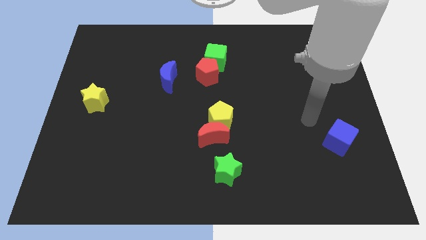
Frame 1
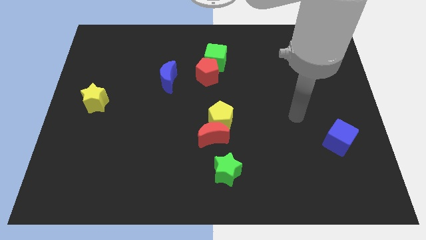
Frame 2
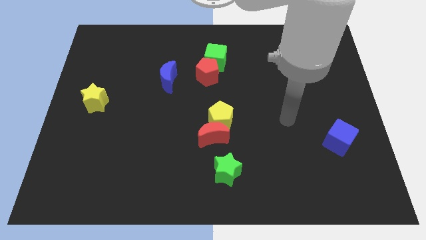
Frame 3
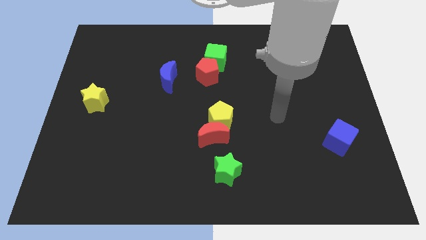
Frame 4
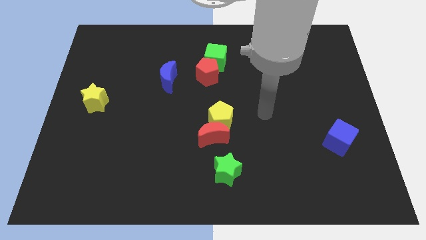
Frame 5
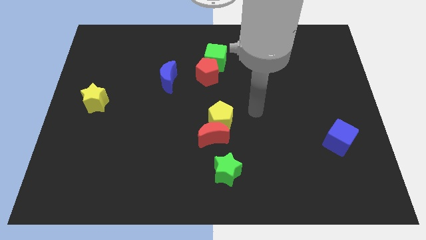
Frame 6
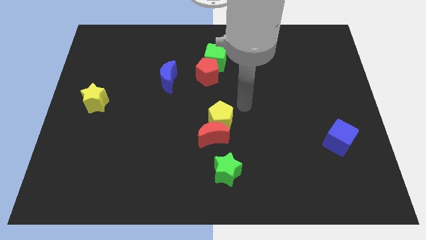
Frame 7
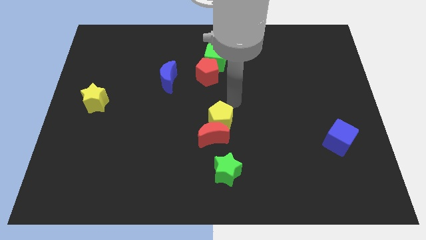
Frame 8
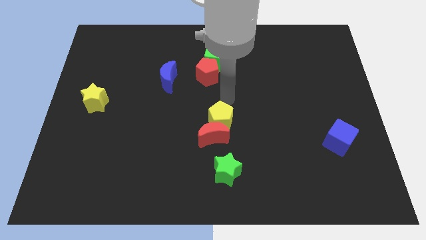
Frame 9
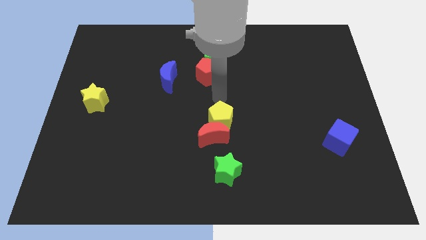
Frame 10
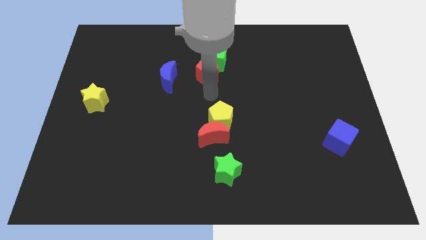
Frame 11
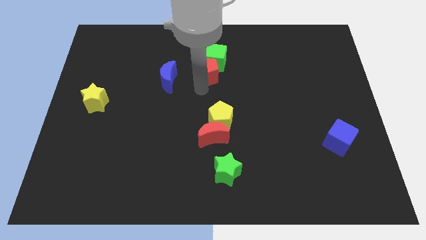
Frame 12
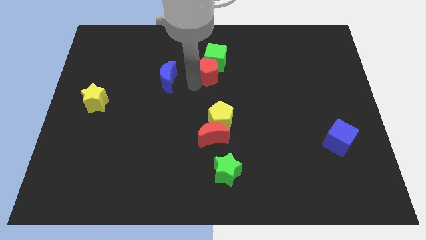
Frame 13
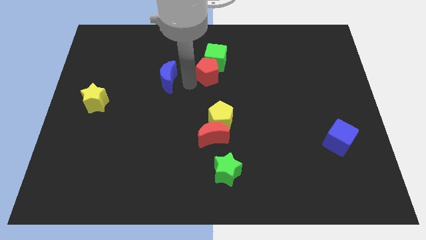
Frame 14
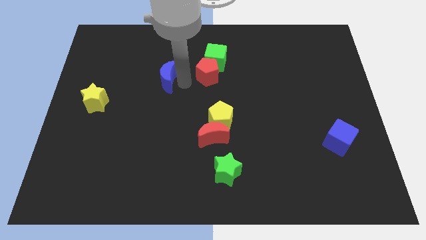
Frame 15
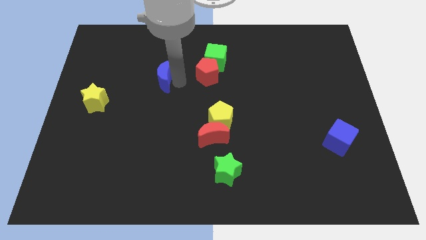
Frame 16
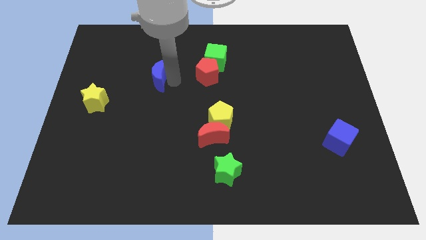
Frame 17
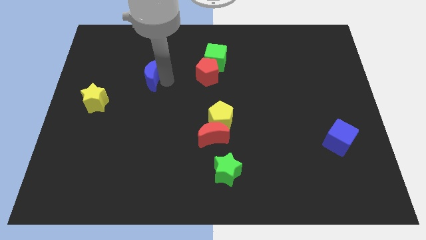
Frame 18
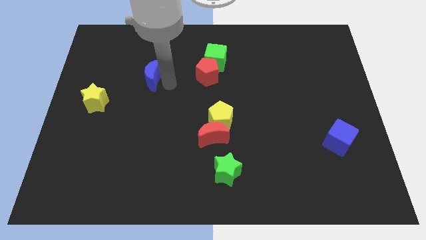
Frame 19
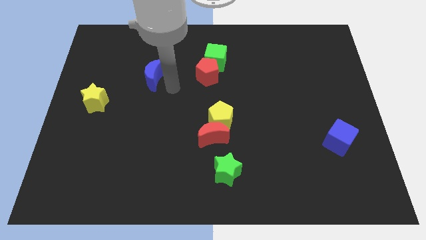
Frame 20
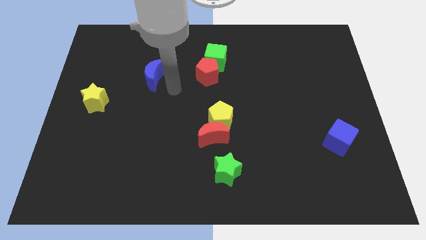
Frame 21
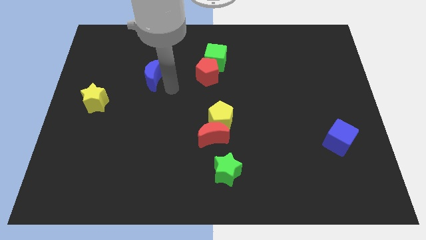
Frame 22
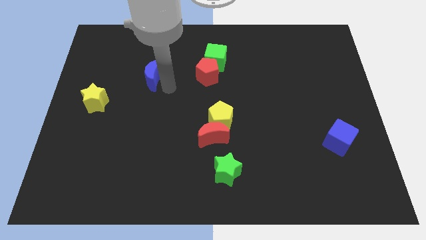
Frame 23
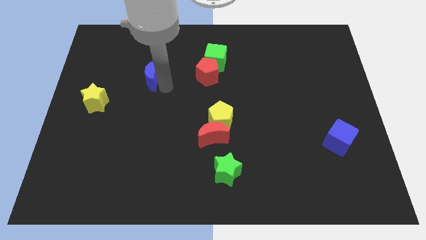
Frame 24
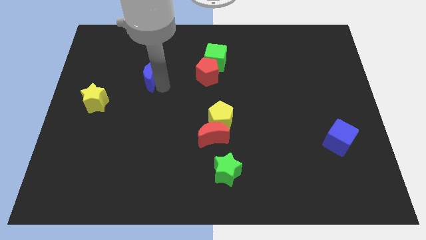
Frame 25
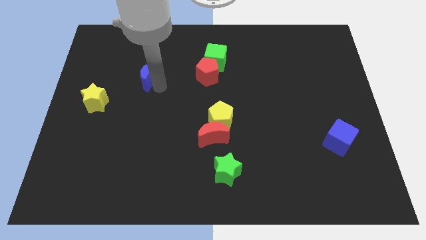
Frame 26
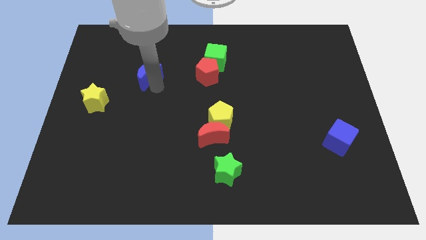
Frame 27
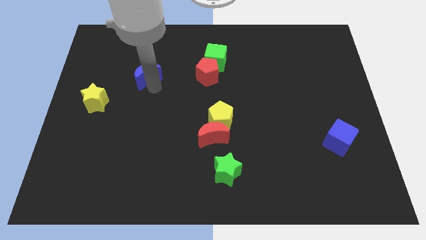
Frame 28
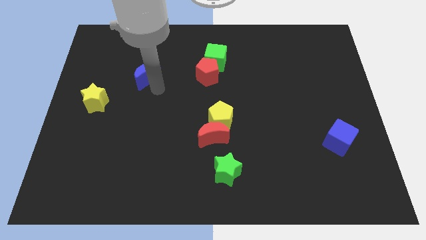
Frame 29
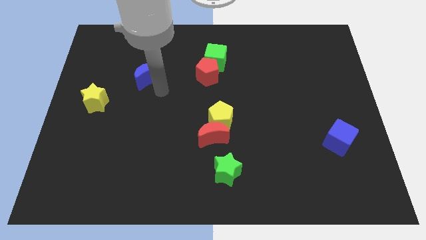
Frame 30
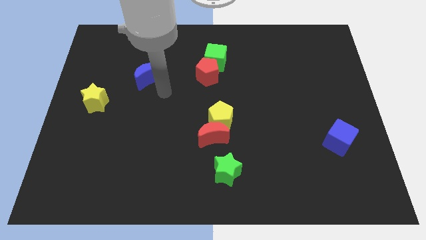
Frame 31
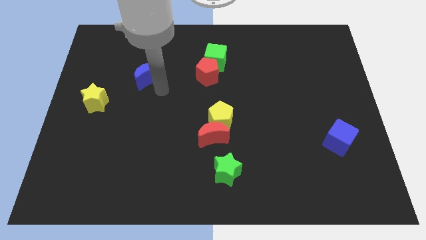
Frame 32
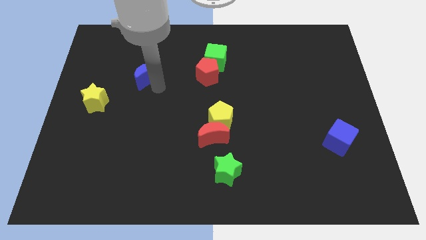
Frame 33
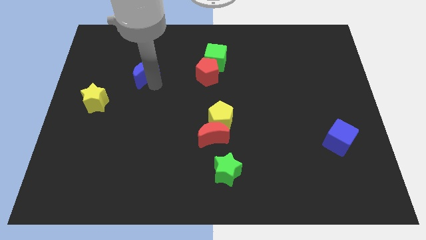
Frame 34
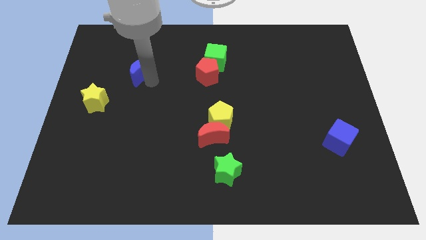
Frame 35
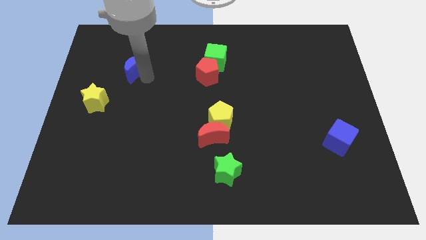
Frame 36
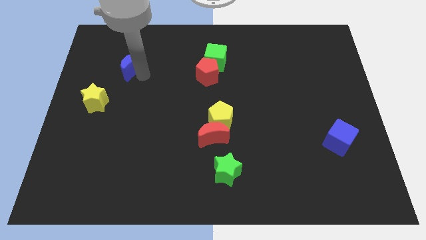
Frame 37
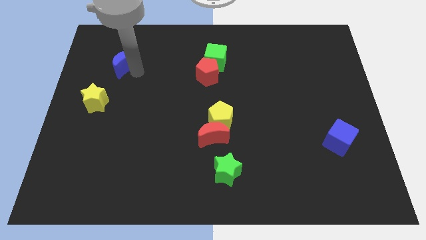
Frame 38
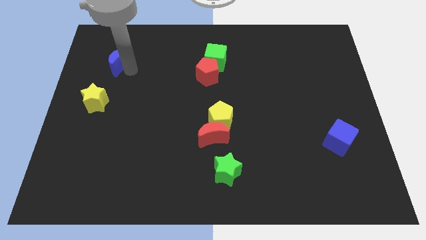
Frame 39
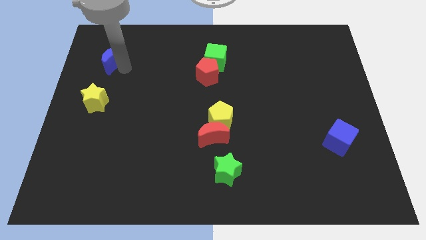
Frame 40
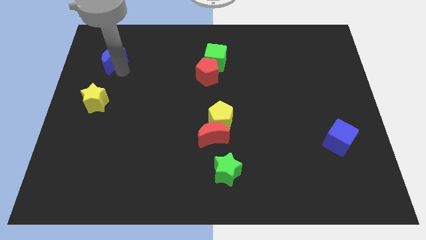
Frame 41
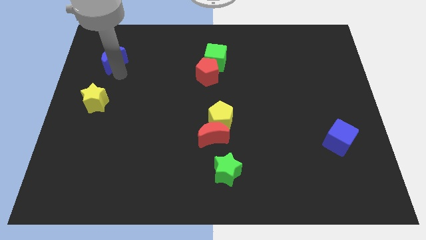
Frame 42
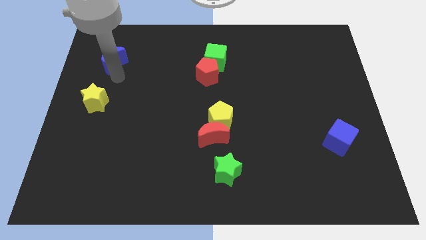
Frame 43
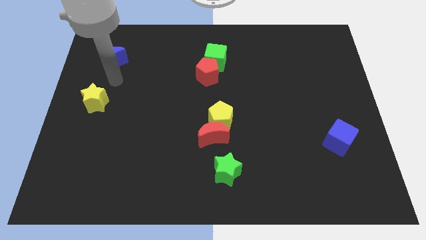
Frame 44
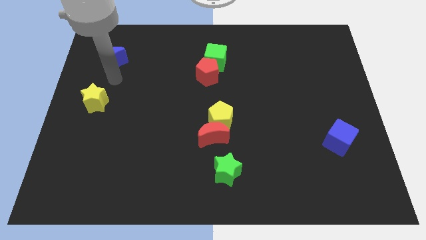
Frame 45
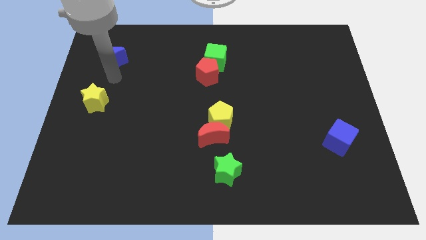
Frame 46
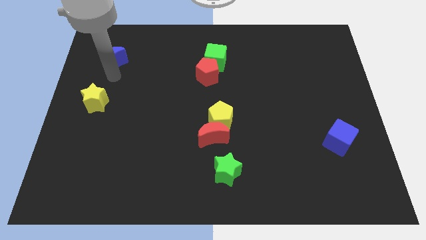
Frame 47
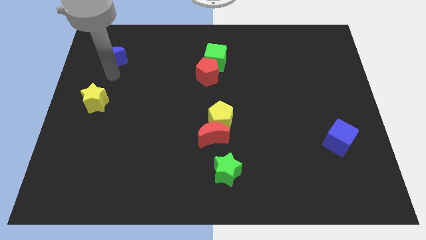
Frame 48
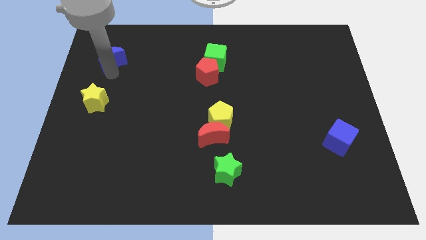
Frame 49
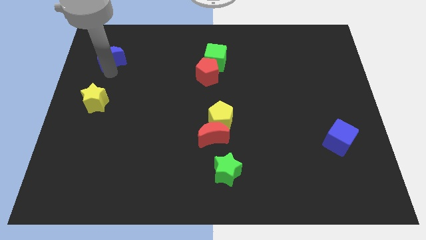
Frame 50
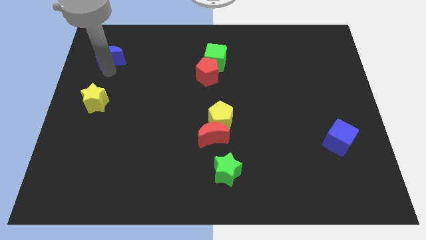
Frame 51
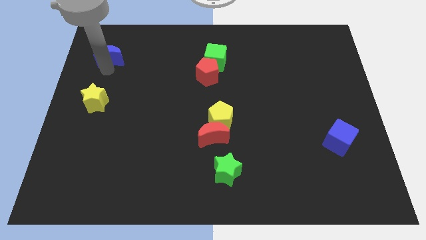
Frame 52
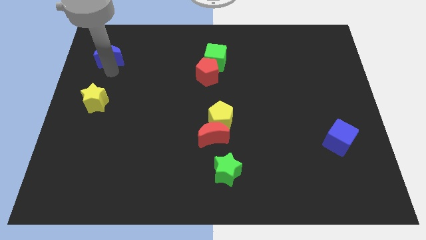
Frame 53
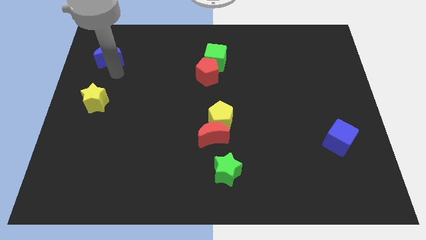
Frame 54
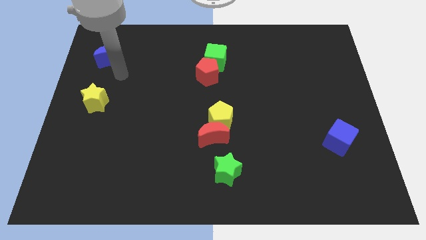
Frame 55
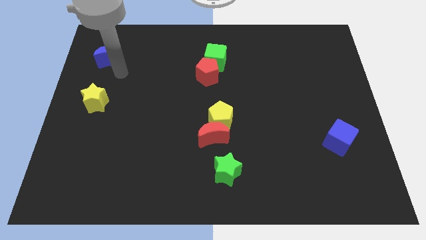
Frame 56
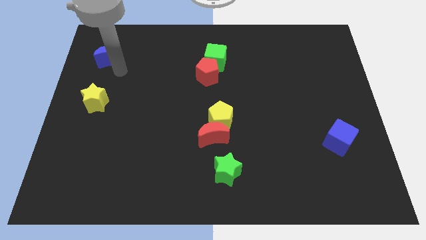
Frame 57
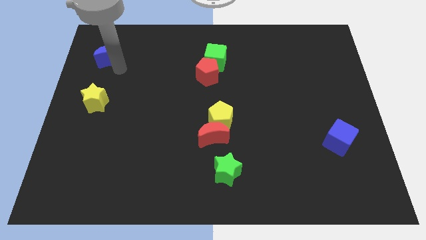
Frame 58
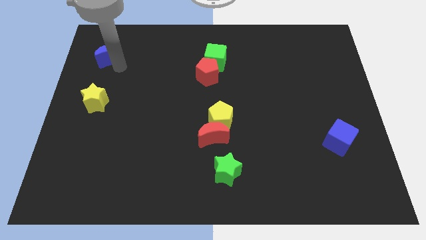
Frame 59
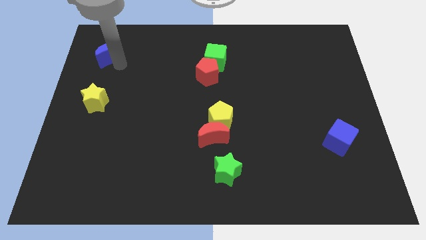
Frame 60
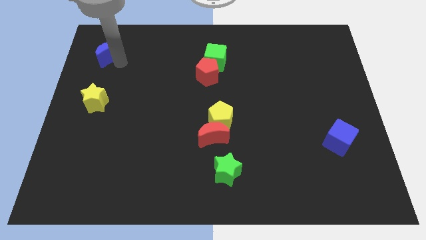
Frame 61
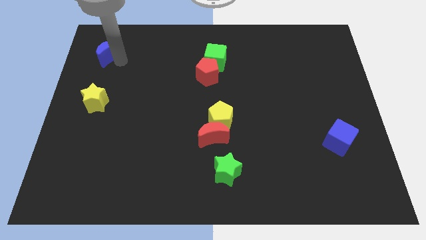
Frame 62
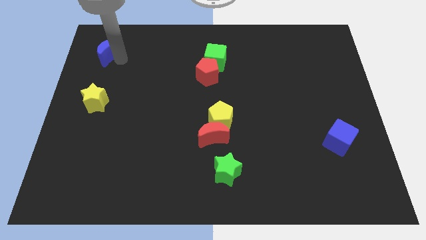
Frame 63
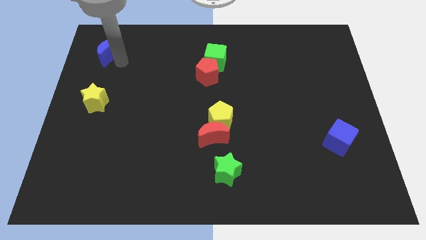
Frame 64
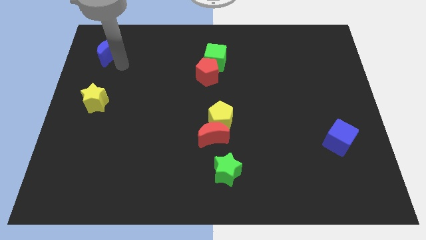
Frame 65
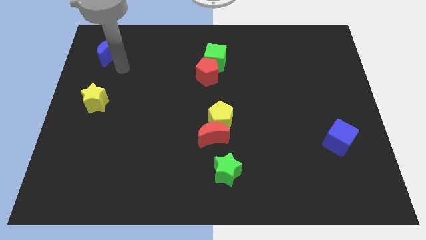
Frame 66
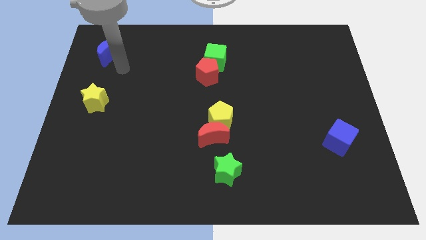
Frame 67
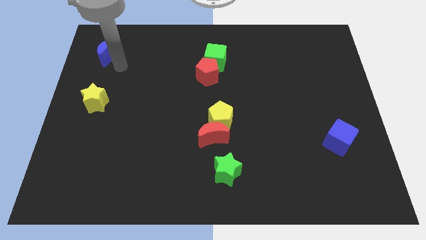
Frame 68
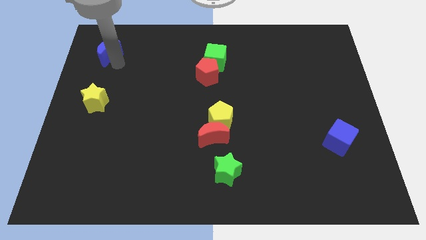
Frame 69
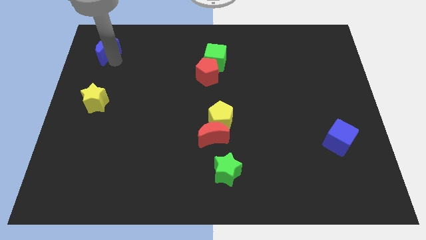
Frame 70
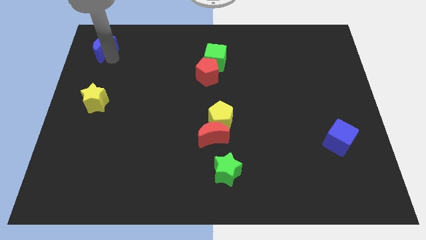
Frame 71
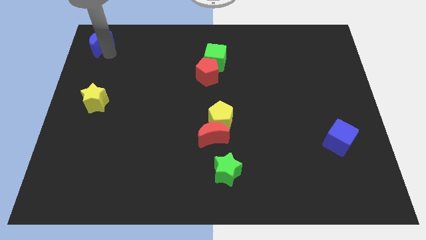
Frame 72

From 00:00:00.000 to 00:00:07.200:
put the blue moon to the upper left corner
